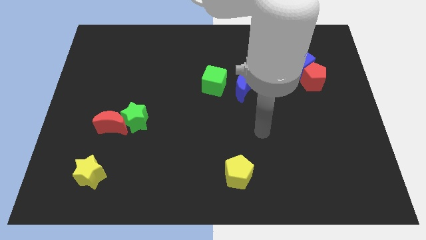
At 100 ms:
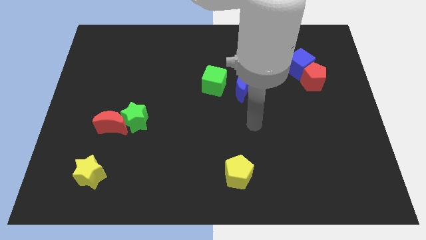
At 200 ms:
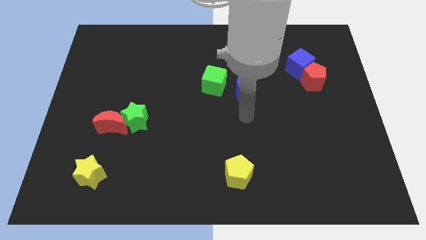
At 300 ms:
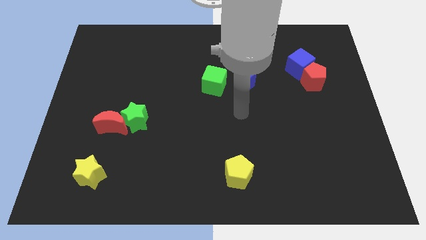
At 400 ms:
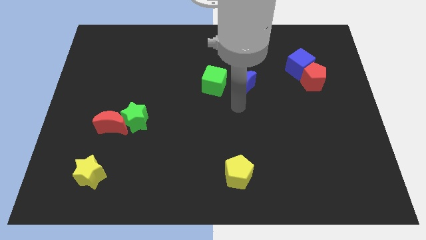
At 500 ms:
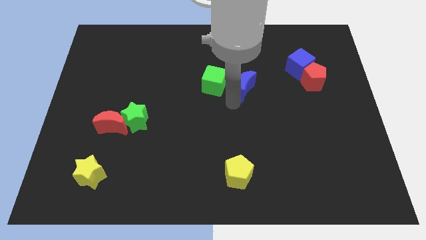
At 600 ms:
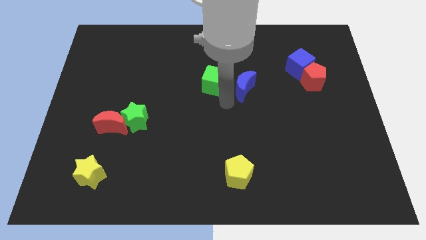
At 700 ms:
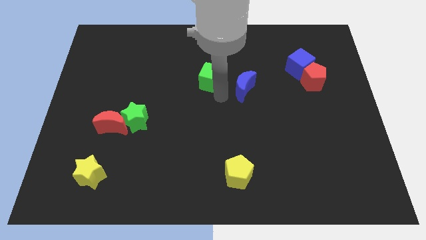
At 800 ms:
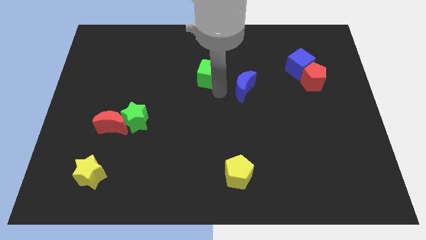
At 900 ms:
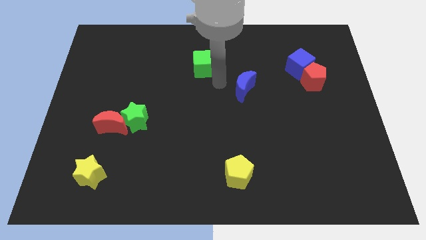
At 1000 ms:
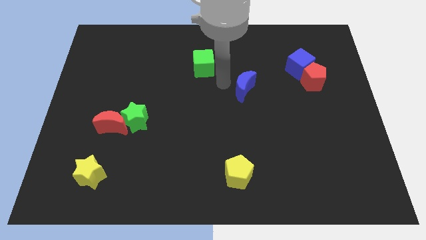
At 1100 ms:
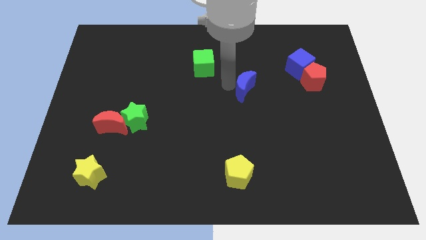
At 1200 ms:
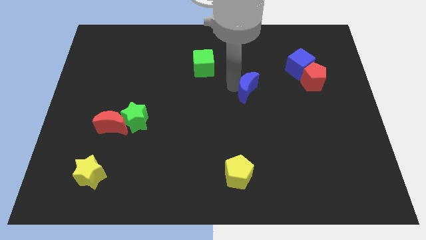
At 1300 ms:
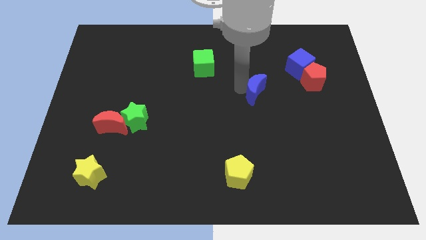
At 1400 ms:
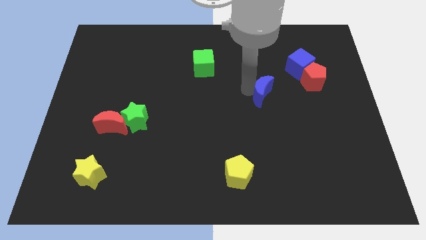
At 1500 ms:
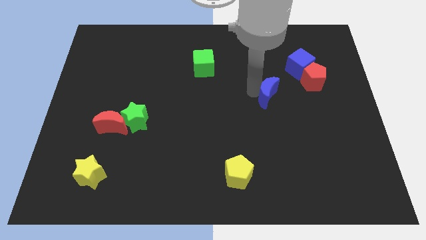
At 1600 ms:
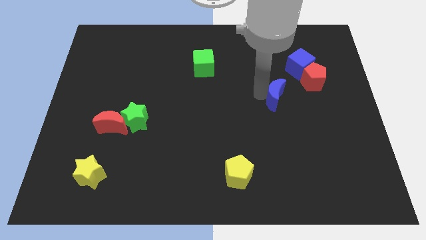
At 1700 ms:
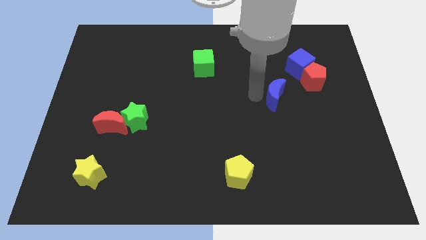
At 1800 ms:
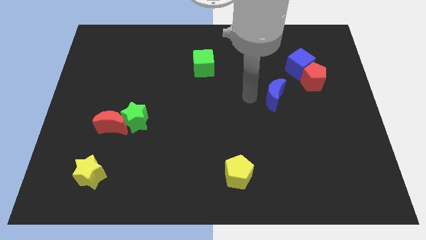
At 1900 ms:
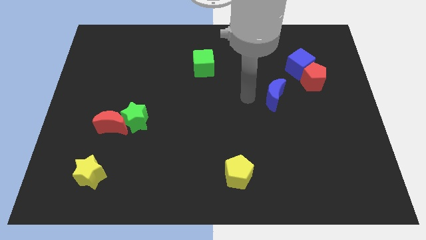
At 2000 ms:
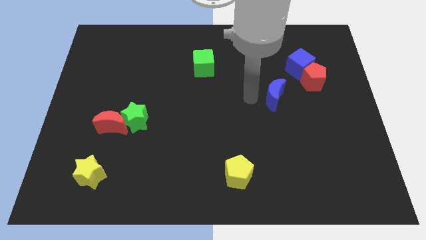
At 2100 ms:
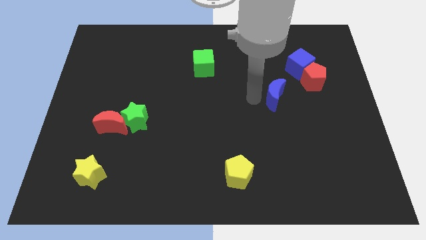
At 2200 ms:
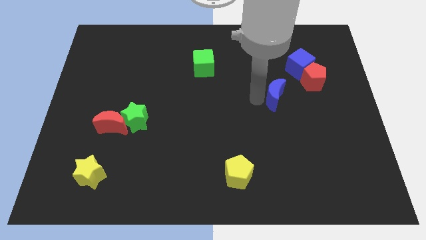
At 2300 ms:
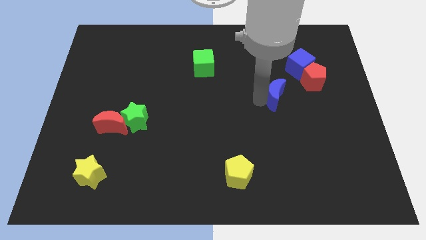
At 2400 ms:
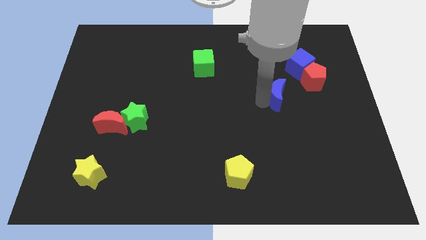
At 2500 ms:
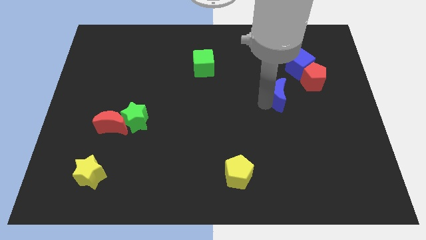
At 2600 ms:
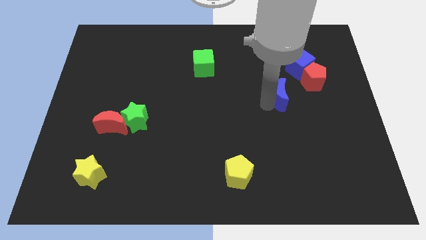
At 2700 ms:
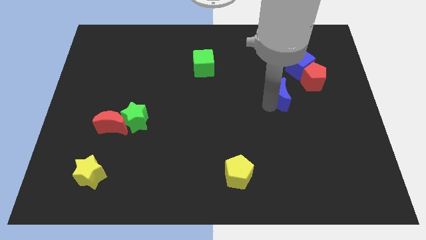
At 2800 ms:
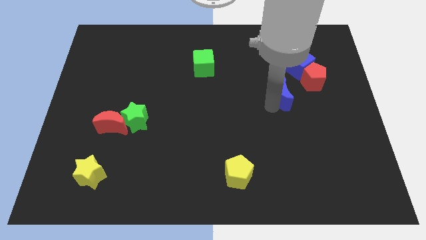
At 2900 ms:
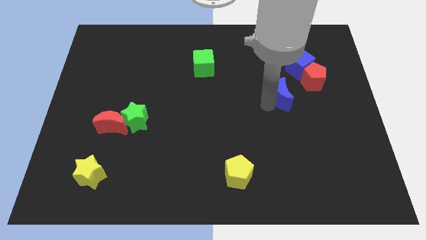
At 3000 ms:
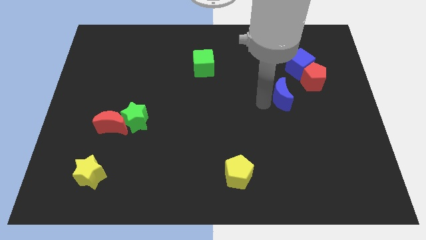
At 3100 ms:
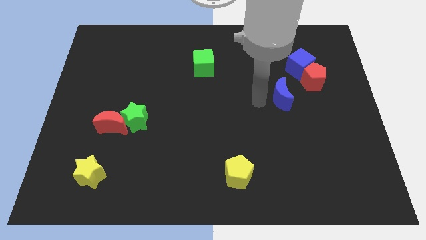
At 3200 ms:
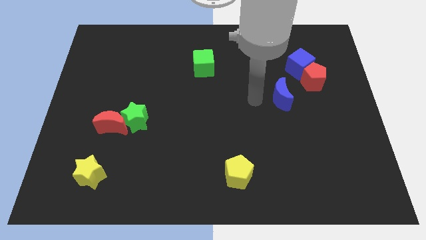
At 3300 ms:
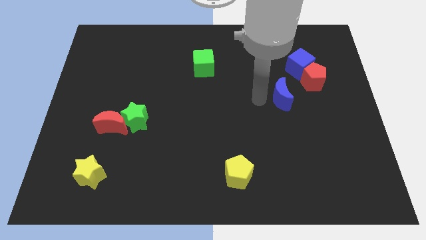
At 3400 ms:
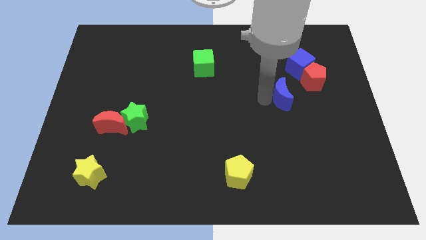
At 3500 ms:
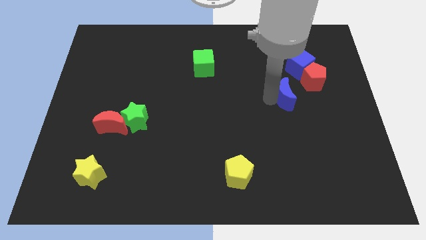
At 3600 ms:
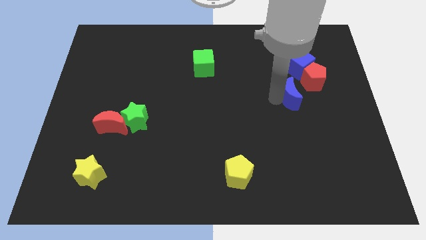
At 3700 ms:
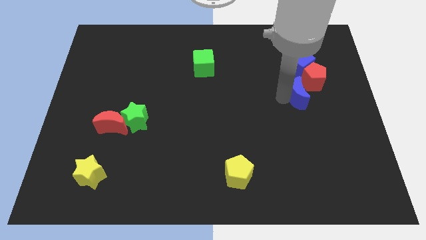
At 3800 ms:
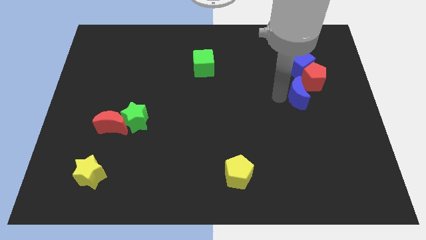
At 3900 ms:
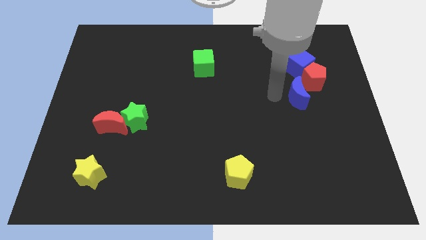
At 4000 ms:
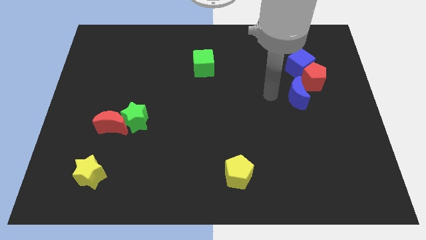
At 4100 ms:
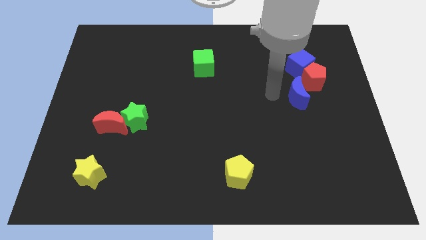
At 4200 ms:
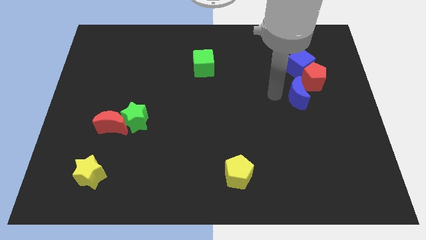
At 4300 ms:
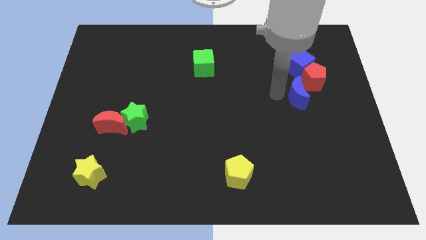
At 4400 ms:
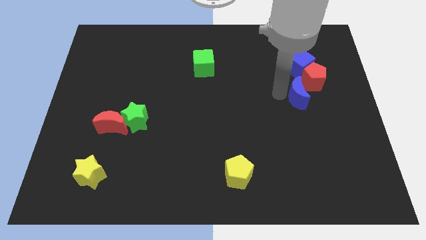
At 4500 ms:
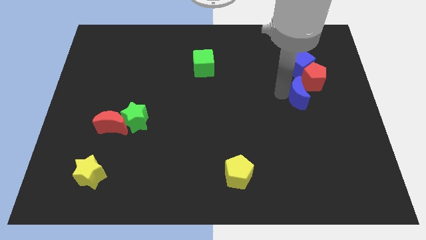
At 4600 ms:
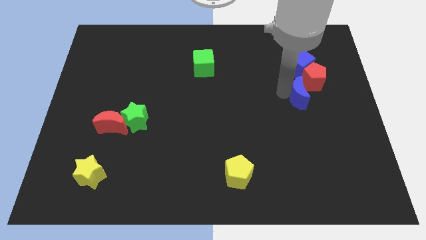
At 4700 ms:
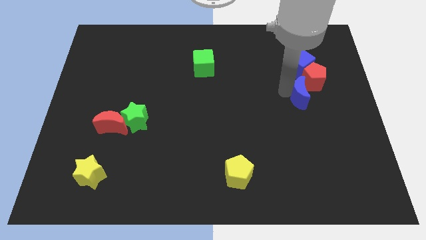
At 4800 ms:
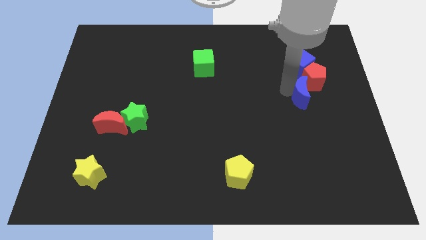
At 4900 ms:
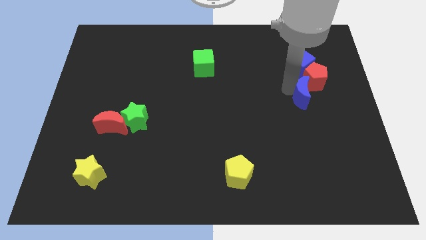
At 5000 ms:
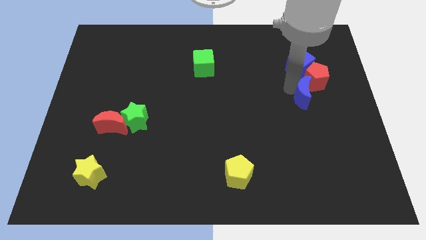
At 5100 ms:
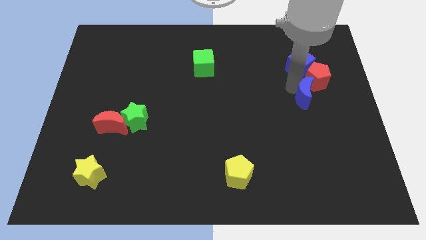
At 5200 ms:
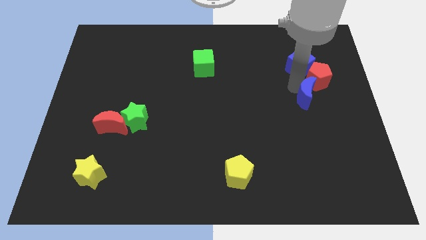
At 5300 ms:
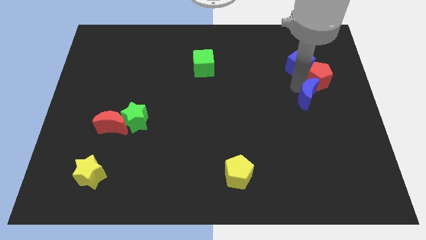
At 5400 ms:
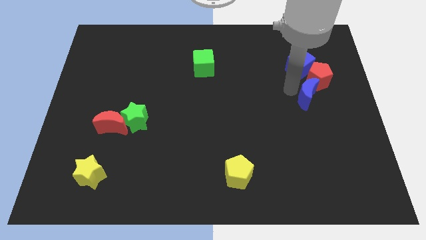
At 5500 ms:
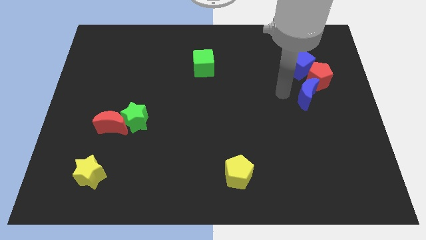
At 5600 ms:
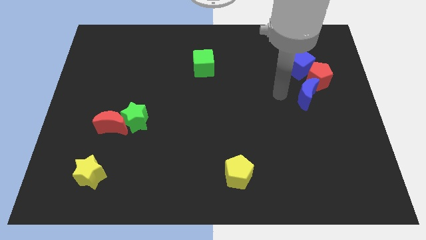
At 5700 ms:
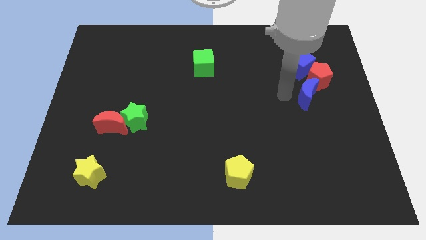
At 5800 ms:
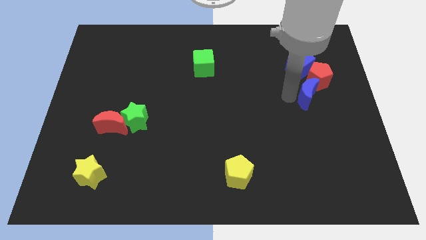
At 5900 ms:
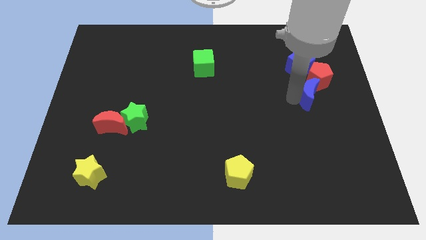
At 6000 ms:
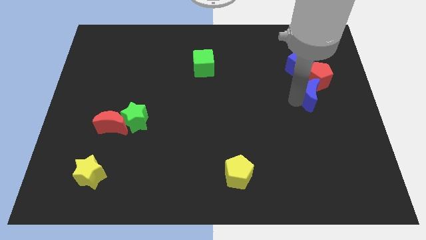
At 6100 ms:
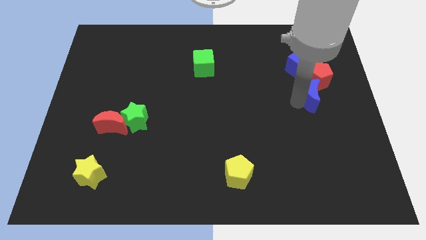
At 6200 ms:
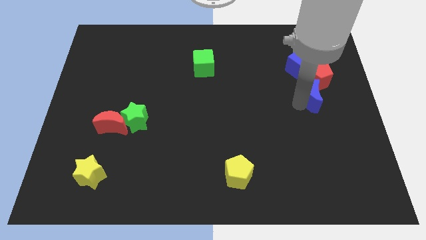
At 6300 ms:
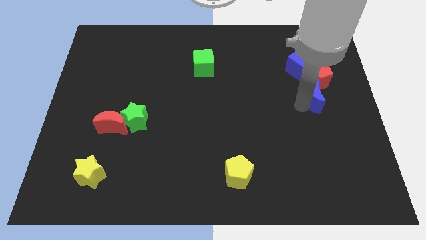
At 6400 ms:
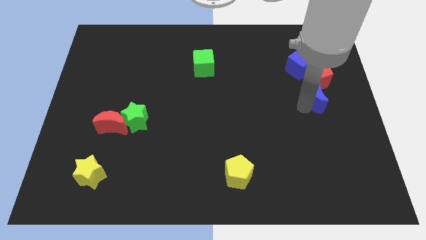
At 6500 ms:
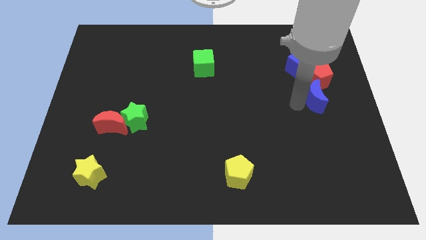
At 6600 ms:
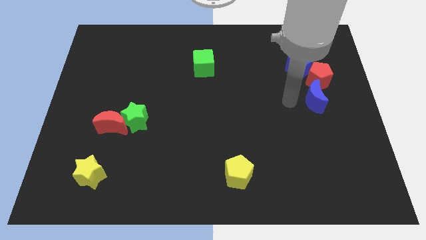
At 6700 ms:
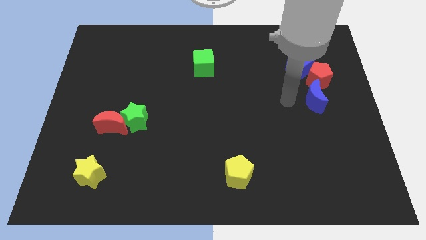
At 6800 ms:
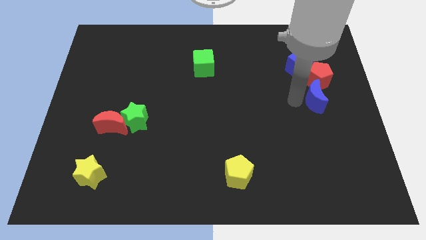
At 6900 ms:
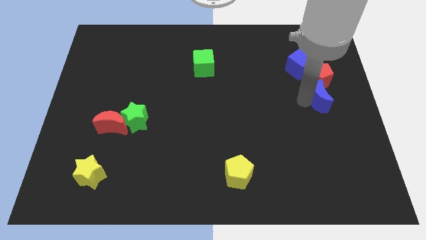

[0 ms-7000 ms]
slide the blue moon to the center right
